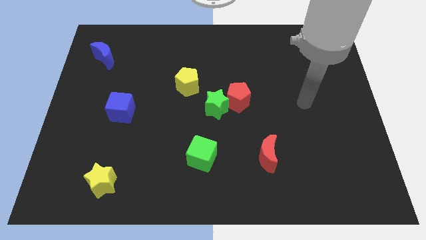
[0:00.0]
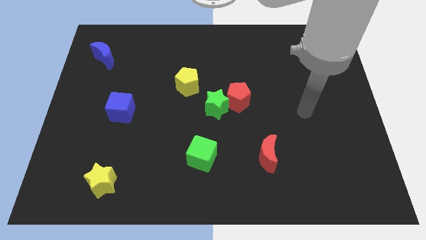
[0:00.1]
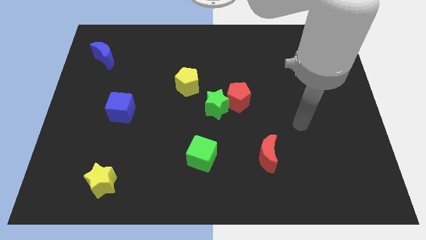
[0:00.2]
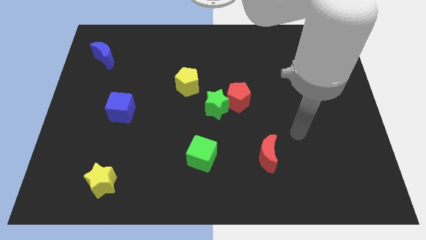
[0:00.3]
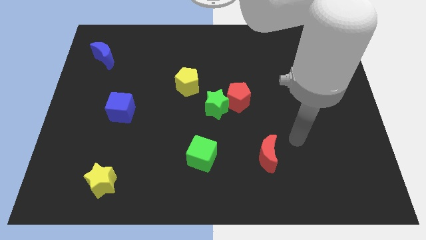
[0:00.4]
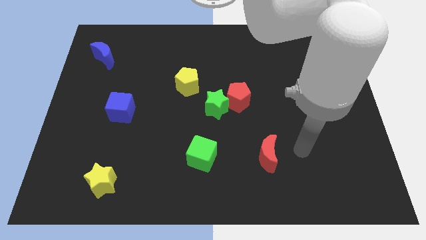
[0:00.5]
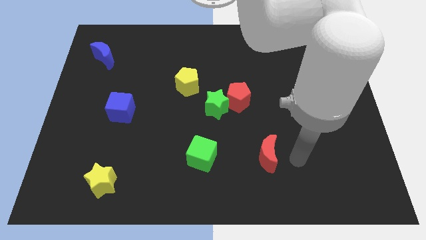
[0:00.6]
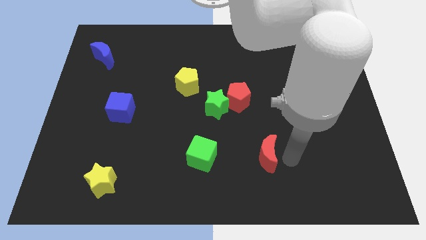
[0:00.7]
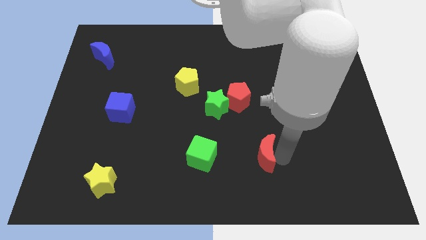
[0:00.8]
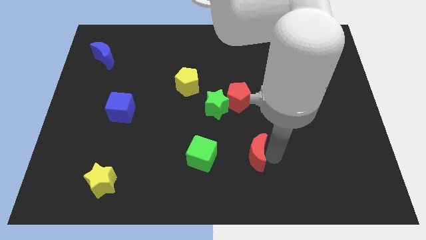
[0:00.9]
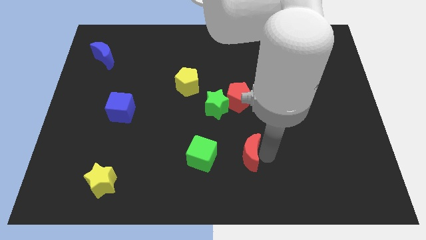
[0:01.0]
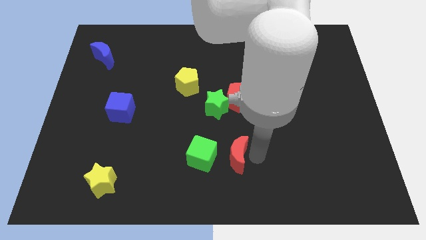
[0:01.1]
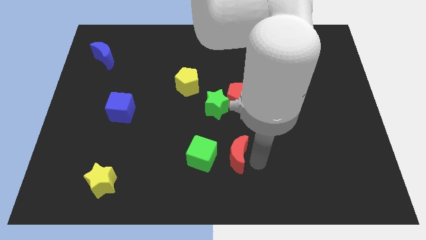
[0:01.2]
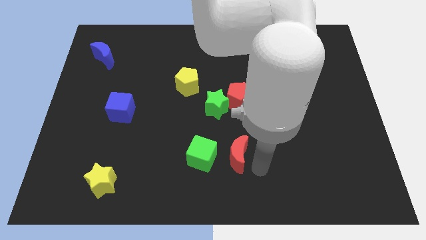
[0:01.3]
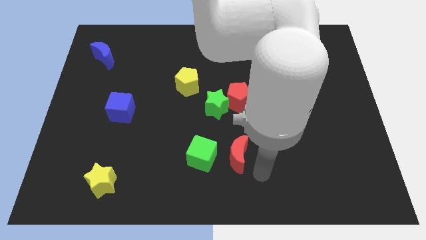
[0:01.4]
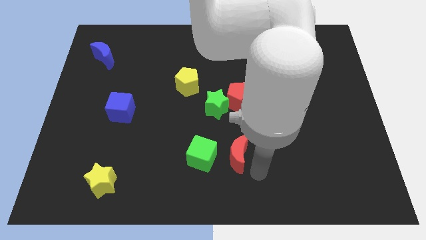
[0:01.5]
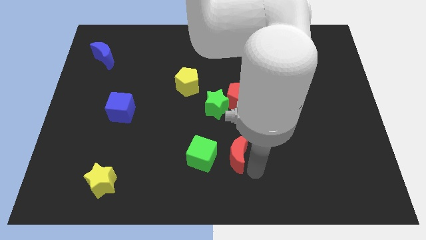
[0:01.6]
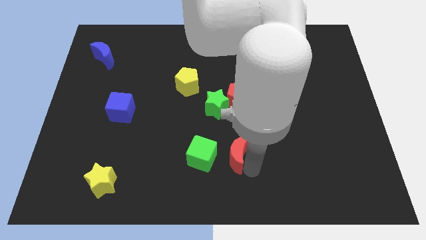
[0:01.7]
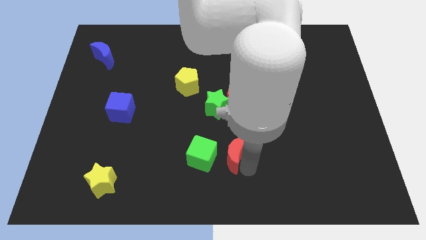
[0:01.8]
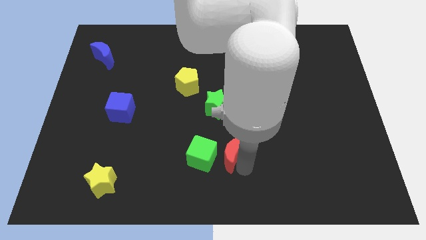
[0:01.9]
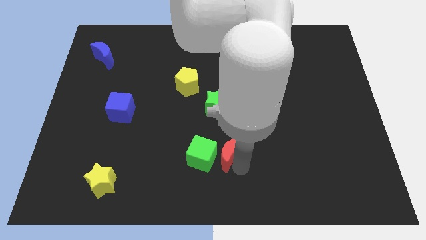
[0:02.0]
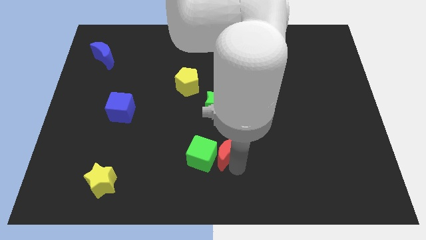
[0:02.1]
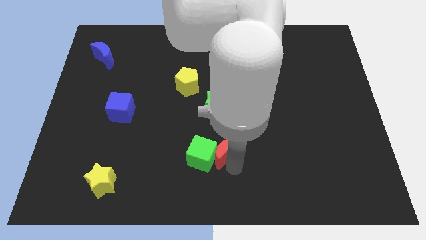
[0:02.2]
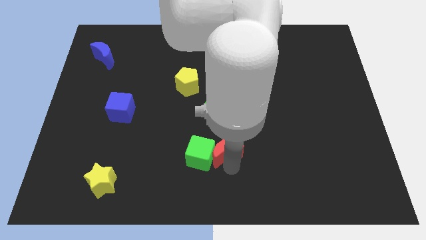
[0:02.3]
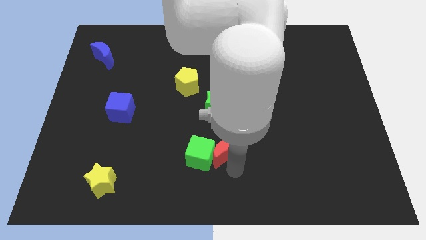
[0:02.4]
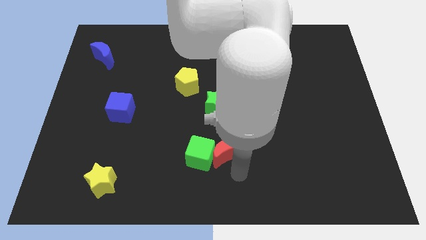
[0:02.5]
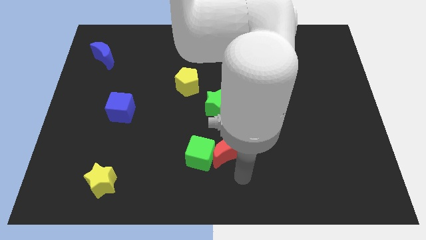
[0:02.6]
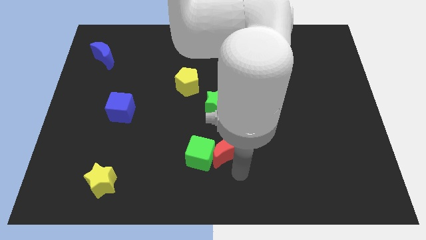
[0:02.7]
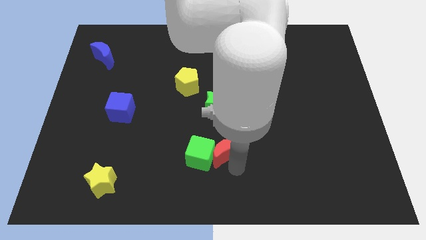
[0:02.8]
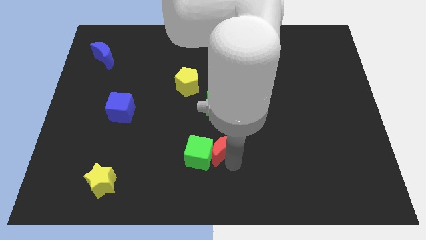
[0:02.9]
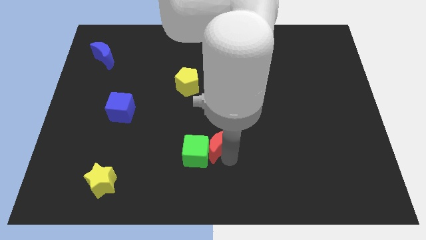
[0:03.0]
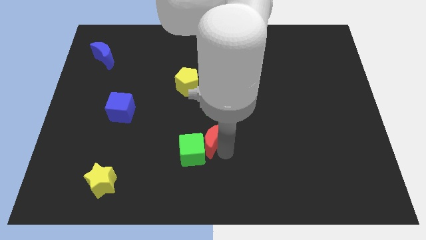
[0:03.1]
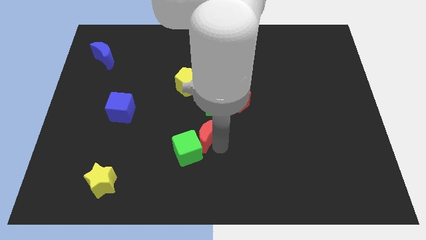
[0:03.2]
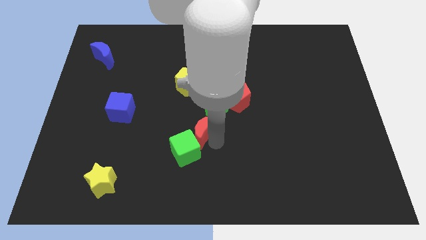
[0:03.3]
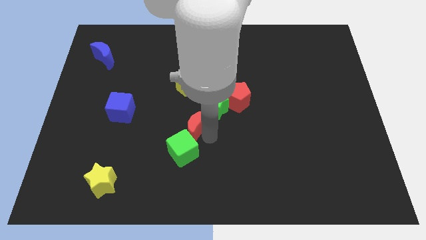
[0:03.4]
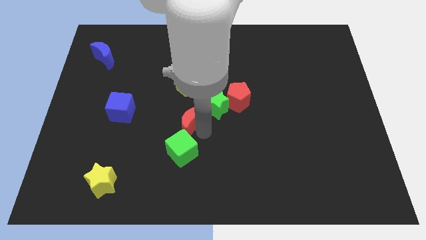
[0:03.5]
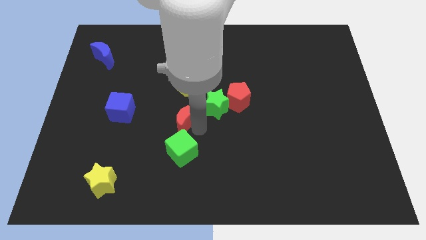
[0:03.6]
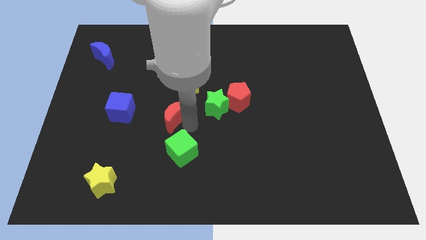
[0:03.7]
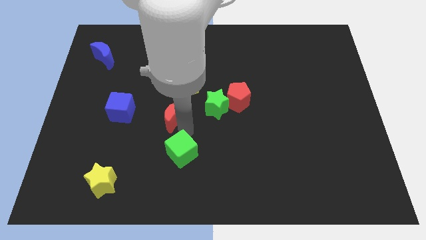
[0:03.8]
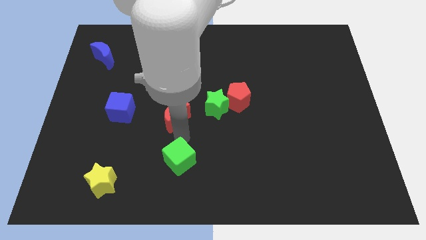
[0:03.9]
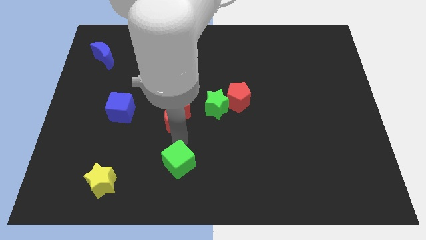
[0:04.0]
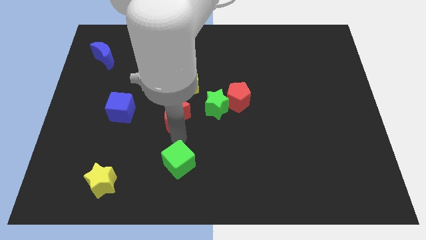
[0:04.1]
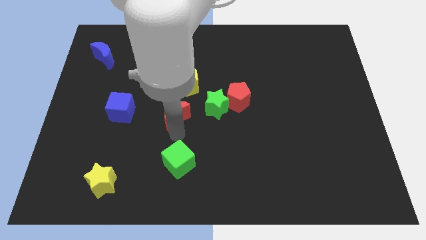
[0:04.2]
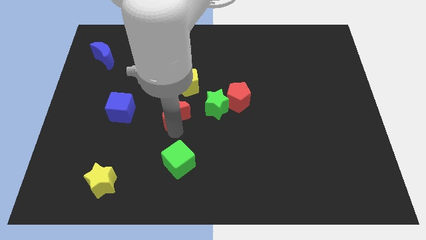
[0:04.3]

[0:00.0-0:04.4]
slide the red moon upwards and left

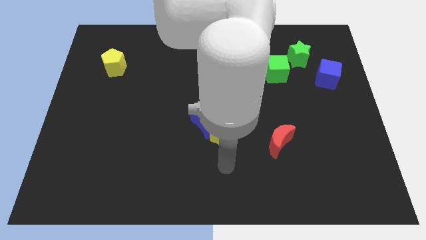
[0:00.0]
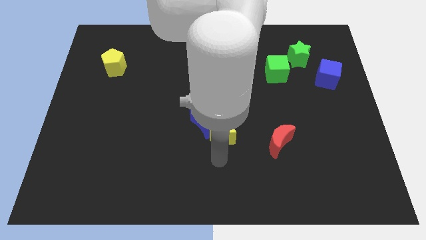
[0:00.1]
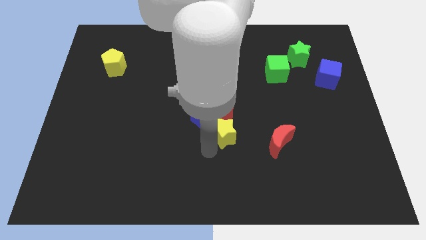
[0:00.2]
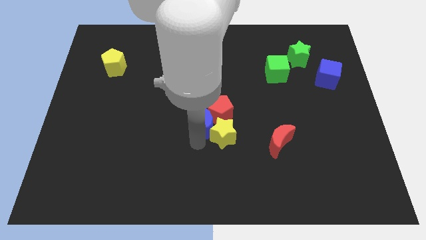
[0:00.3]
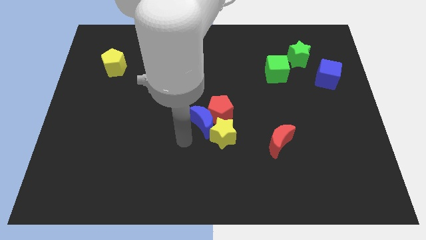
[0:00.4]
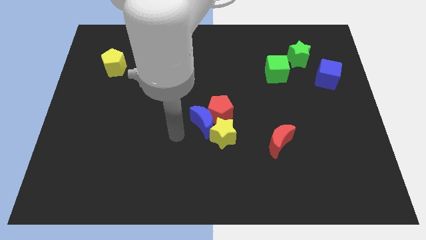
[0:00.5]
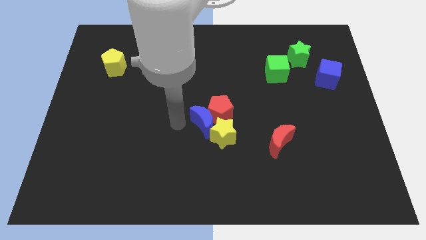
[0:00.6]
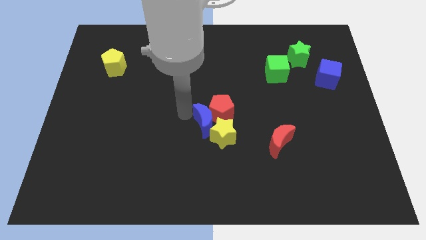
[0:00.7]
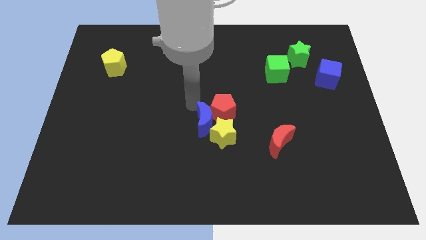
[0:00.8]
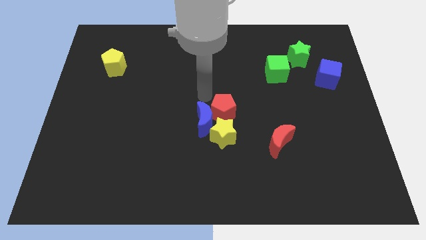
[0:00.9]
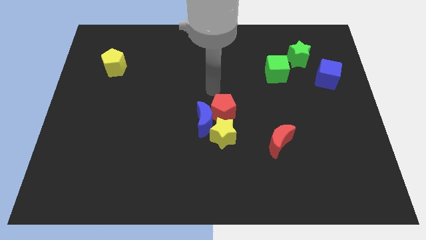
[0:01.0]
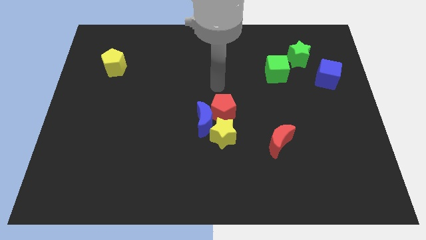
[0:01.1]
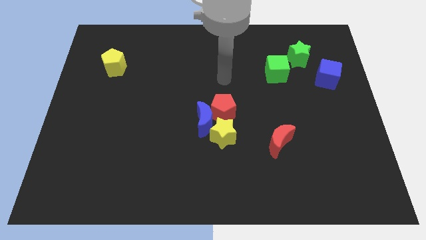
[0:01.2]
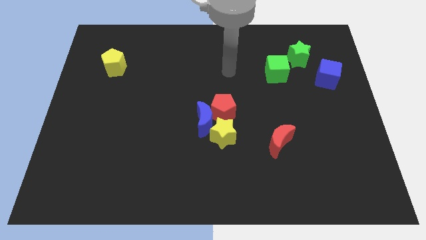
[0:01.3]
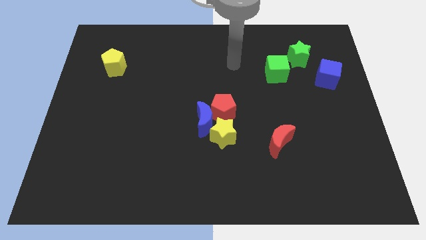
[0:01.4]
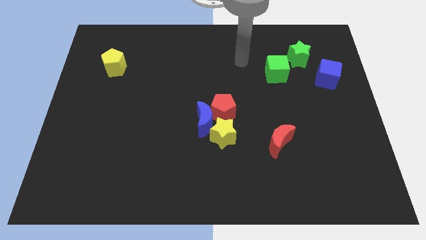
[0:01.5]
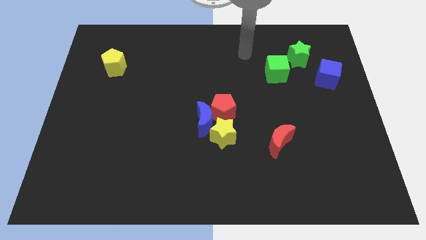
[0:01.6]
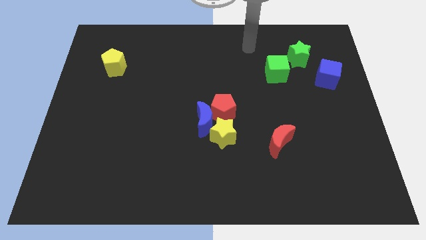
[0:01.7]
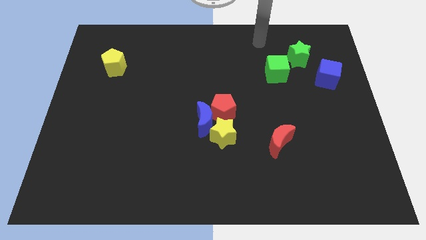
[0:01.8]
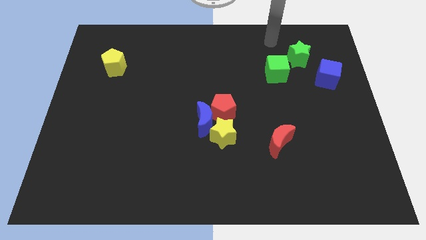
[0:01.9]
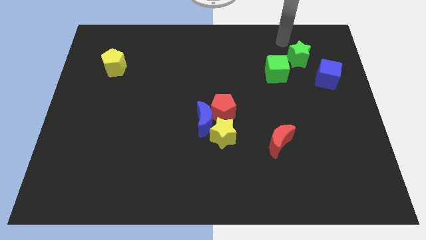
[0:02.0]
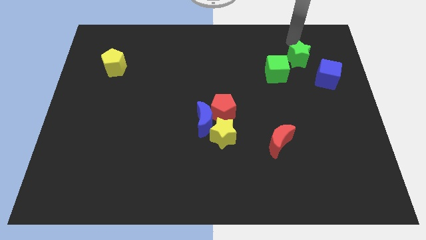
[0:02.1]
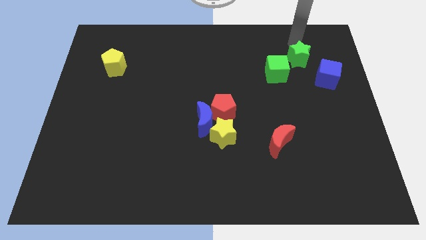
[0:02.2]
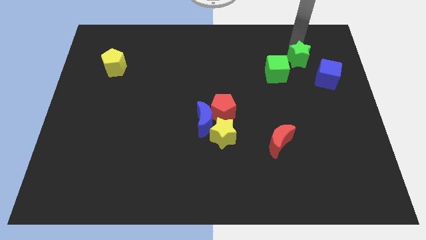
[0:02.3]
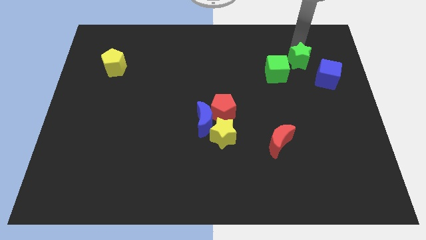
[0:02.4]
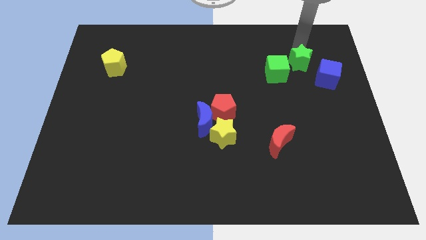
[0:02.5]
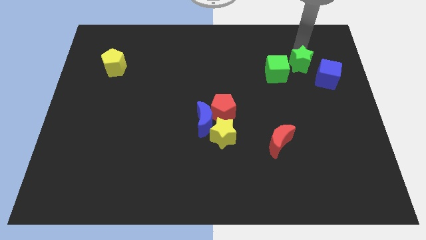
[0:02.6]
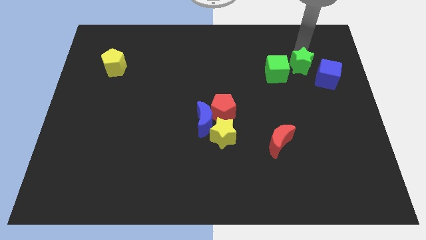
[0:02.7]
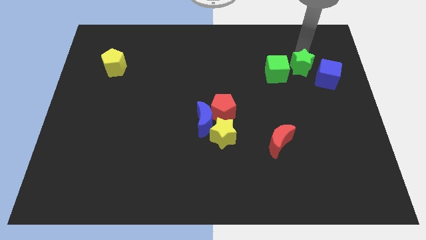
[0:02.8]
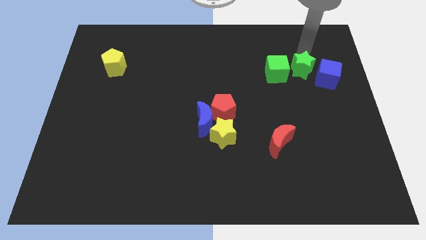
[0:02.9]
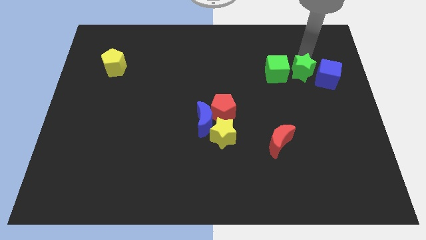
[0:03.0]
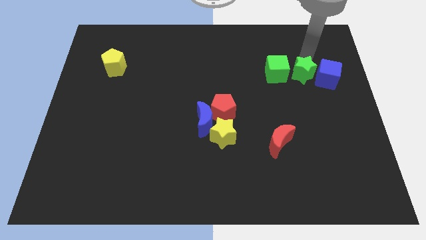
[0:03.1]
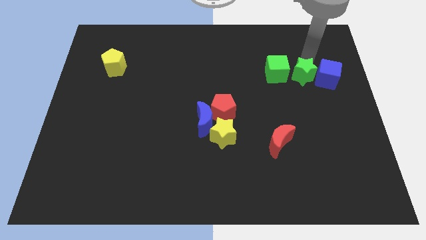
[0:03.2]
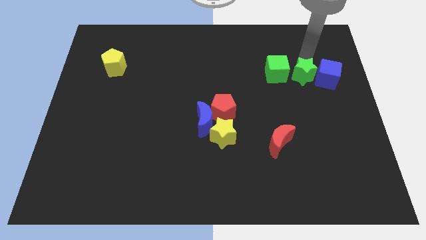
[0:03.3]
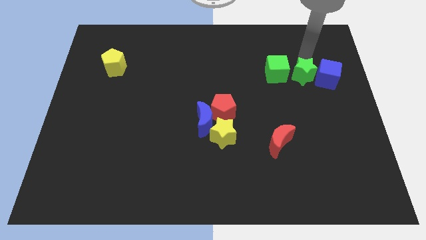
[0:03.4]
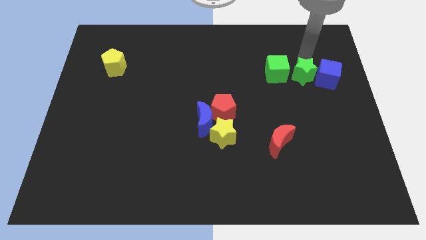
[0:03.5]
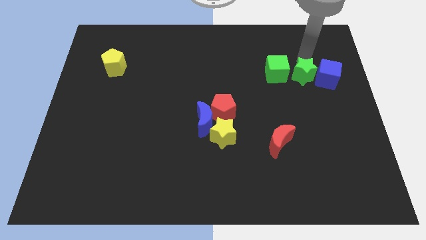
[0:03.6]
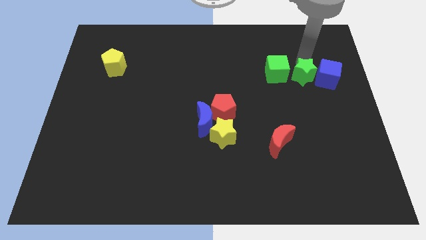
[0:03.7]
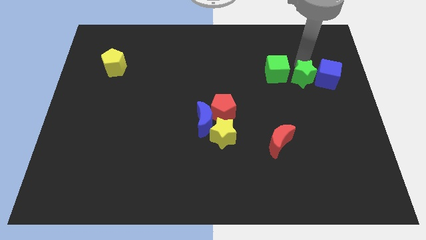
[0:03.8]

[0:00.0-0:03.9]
move the green star slightly downwards
